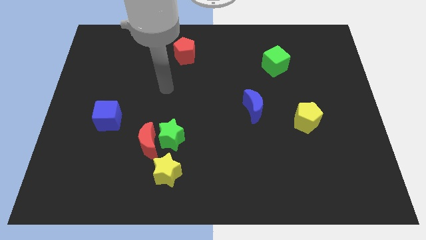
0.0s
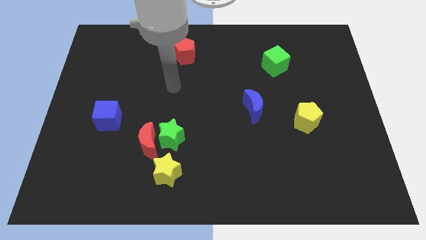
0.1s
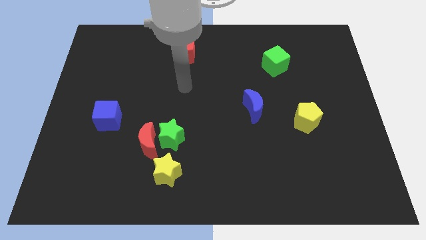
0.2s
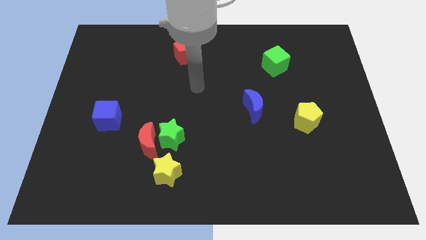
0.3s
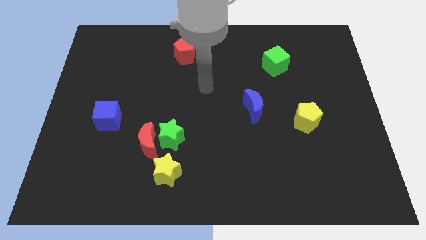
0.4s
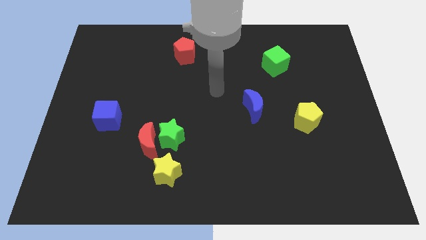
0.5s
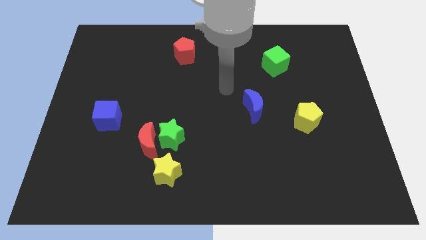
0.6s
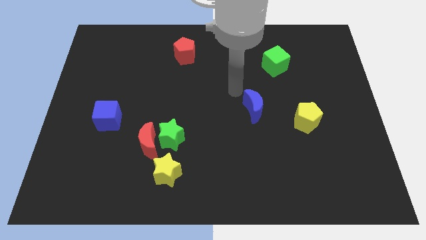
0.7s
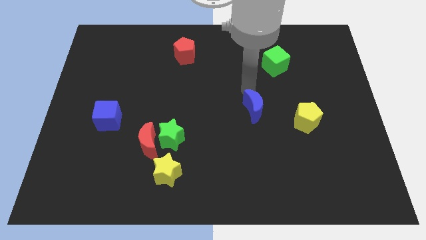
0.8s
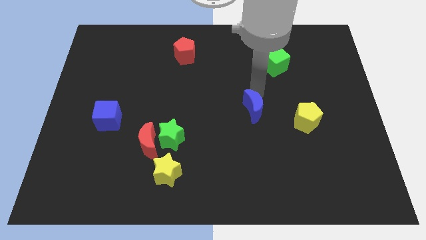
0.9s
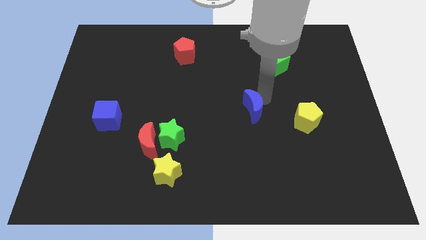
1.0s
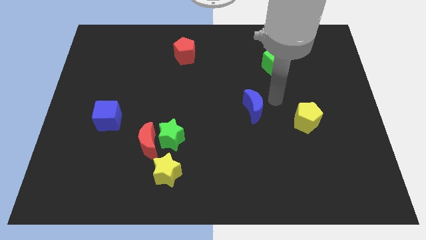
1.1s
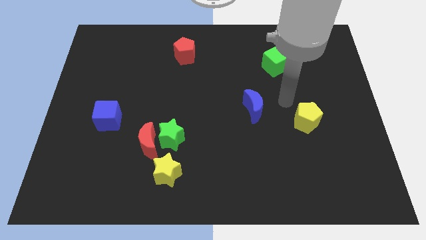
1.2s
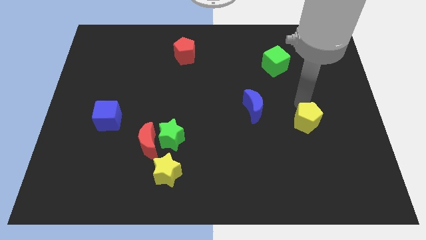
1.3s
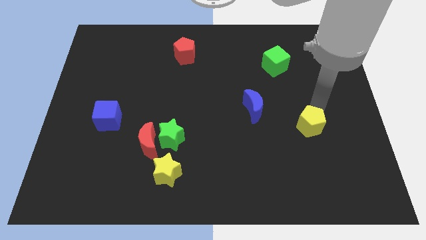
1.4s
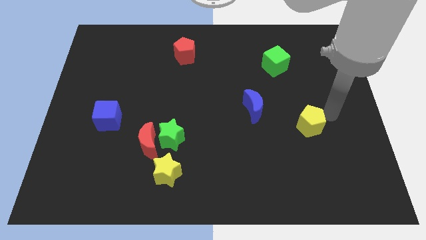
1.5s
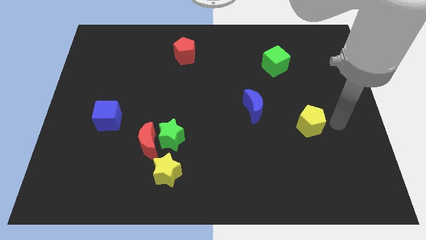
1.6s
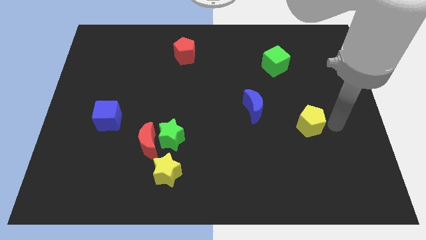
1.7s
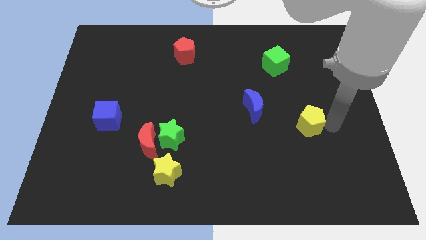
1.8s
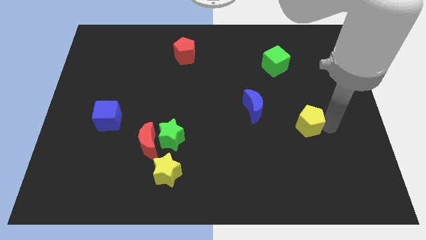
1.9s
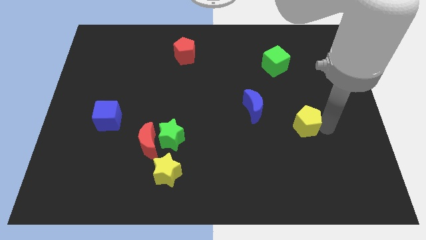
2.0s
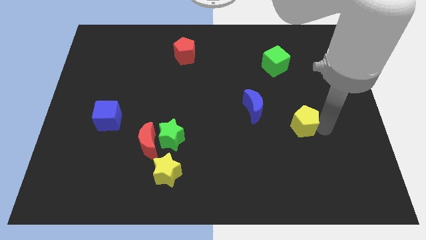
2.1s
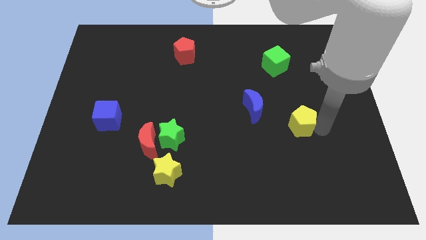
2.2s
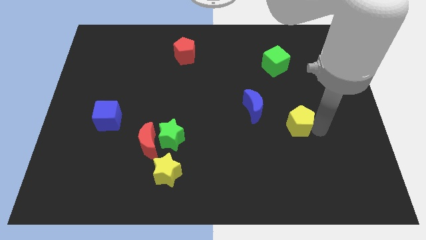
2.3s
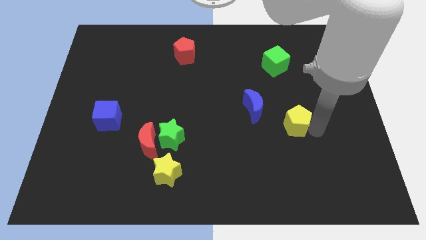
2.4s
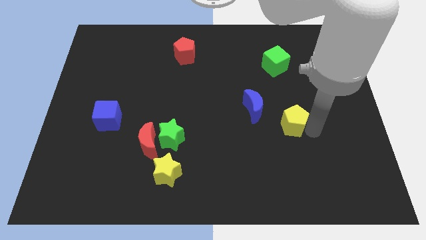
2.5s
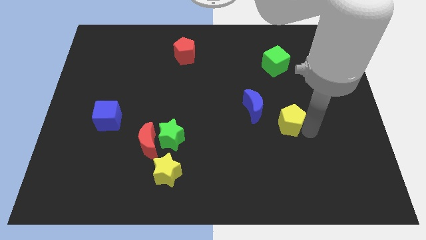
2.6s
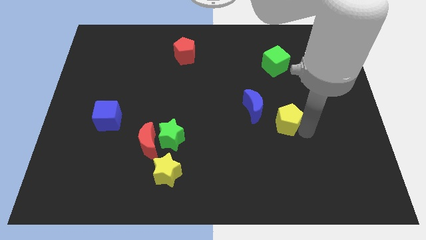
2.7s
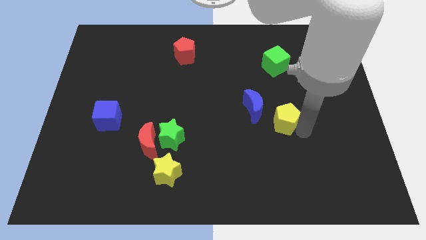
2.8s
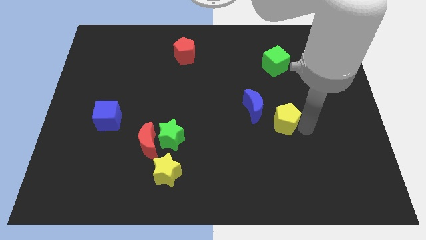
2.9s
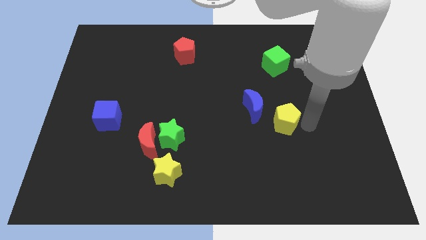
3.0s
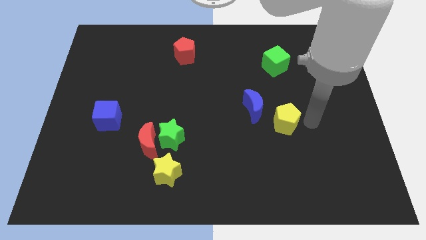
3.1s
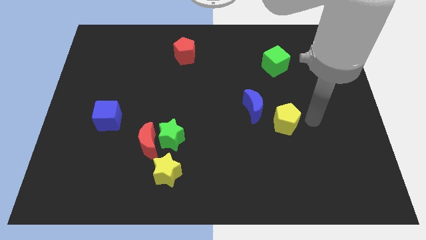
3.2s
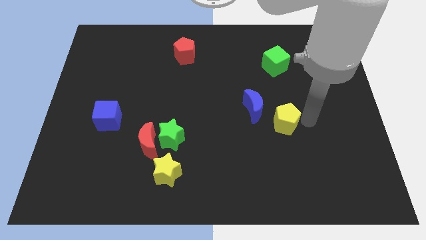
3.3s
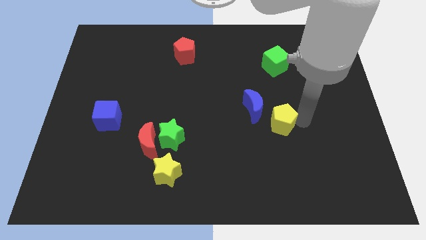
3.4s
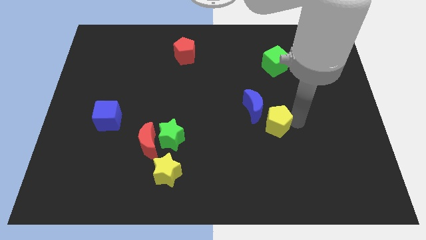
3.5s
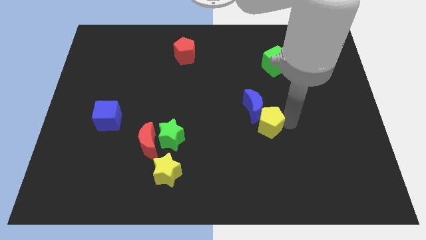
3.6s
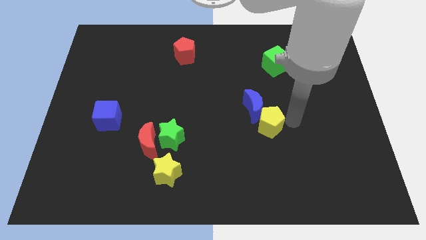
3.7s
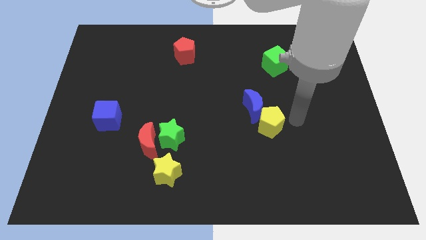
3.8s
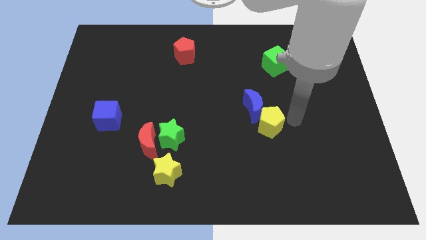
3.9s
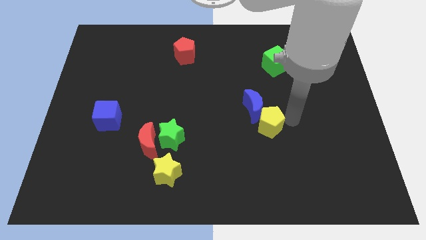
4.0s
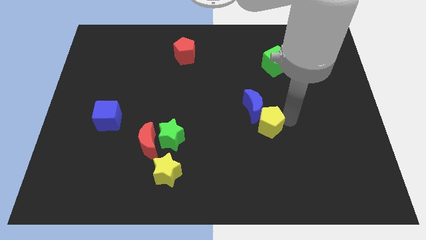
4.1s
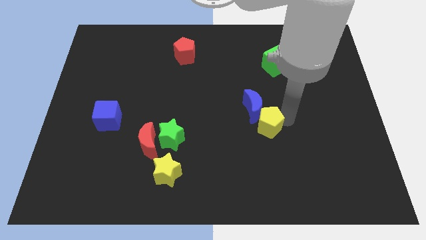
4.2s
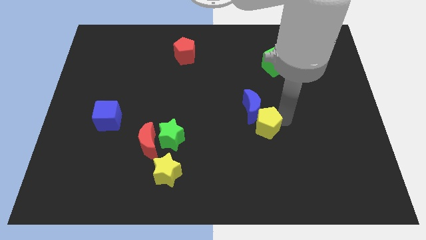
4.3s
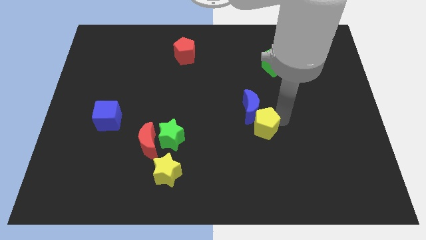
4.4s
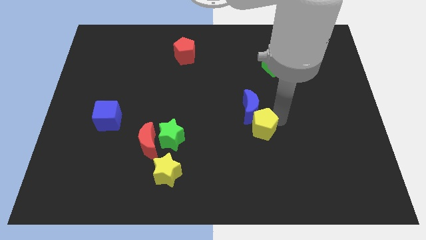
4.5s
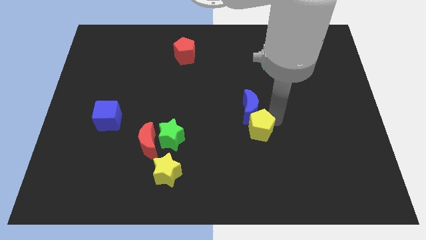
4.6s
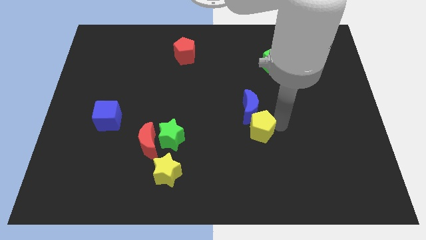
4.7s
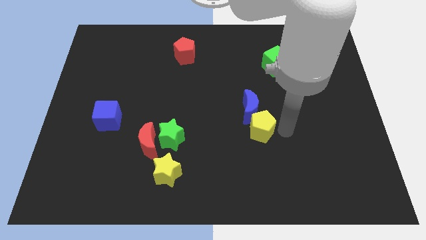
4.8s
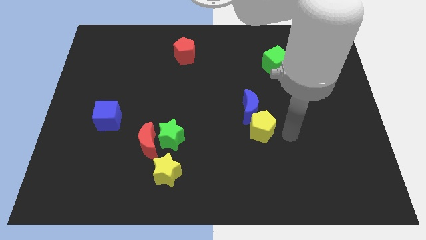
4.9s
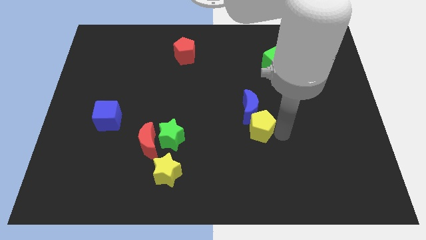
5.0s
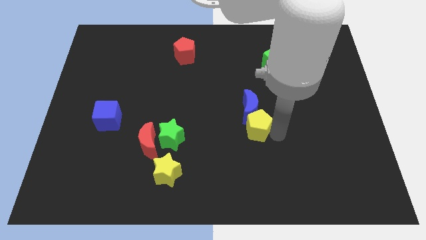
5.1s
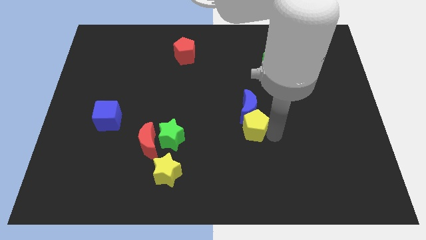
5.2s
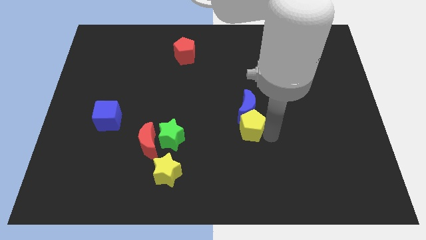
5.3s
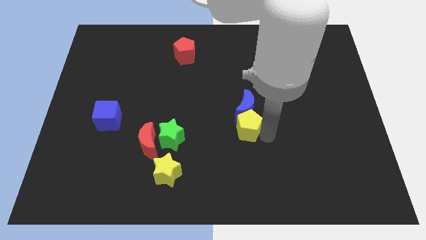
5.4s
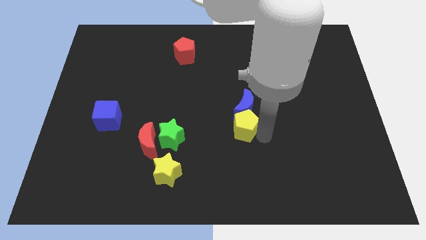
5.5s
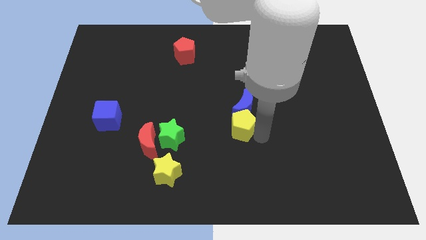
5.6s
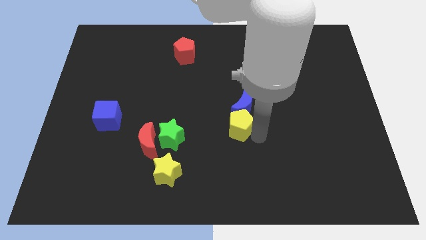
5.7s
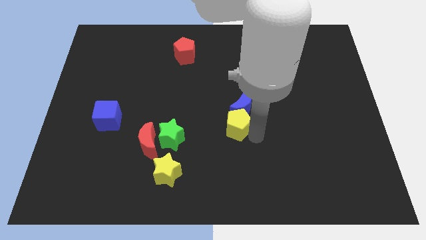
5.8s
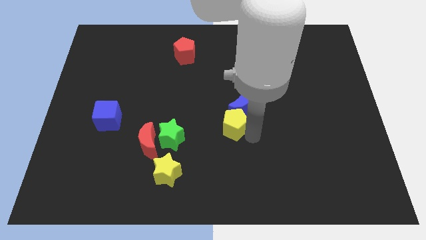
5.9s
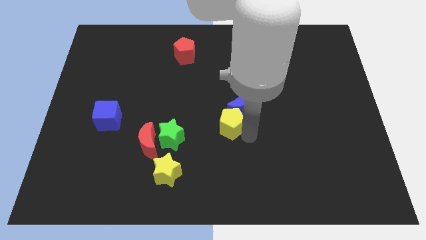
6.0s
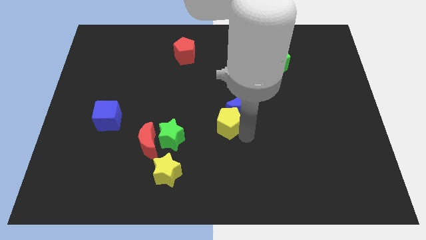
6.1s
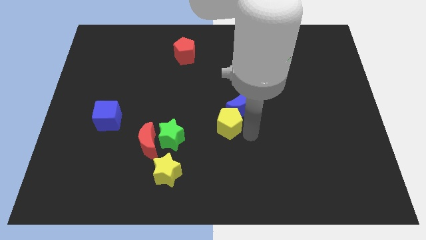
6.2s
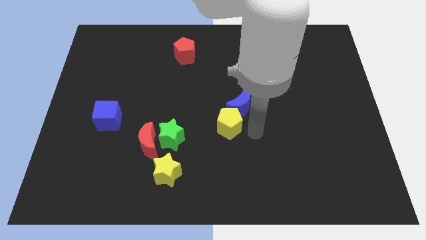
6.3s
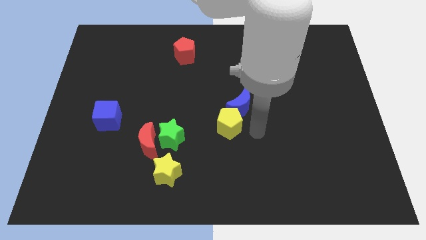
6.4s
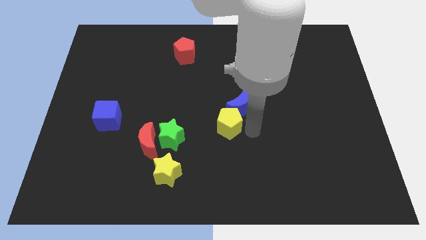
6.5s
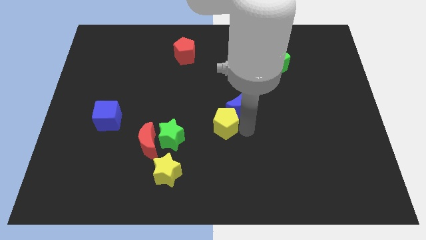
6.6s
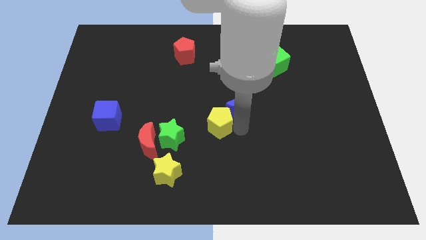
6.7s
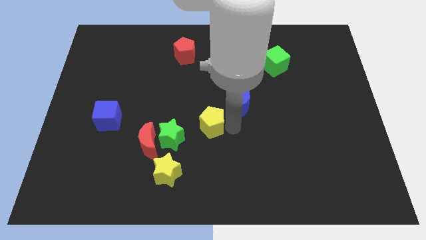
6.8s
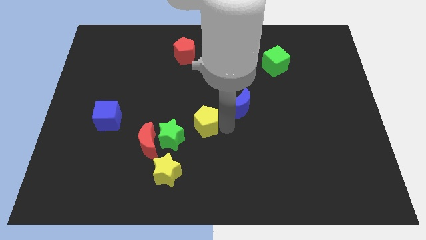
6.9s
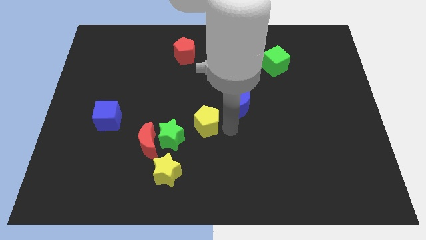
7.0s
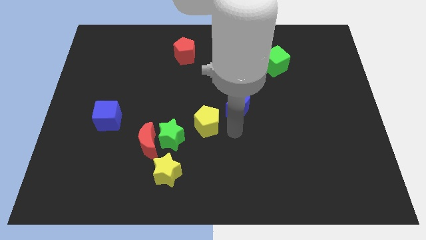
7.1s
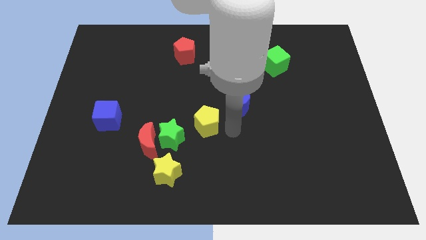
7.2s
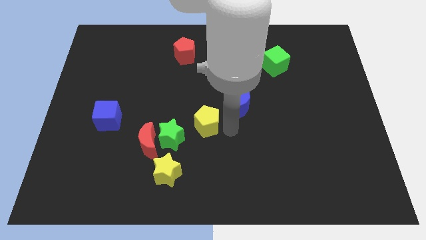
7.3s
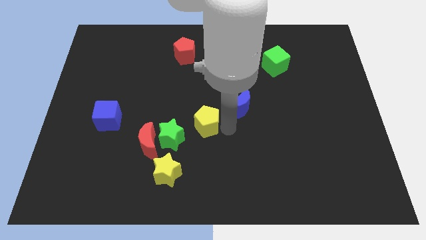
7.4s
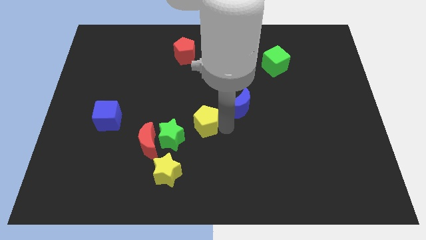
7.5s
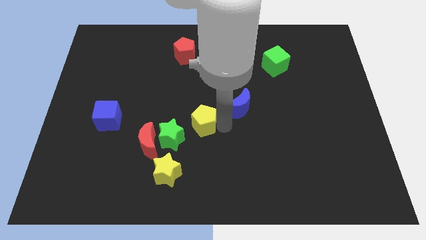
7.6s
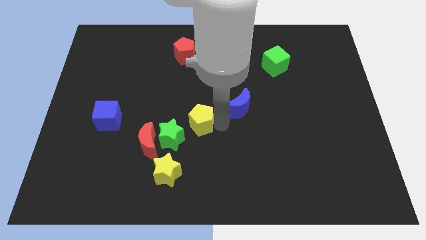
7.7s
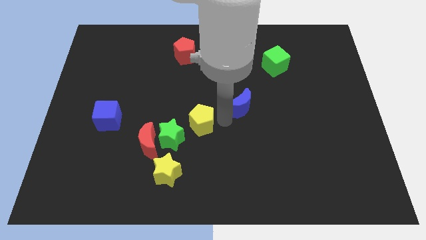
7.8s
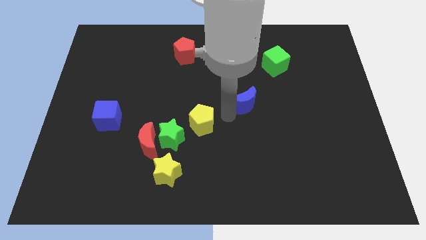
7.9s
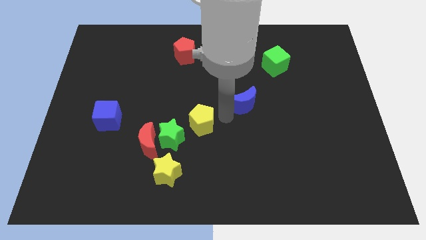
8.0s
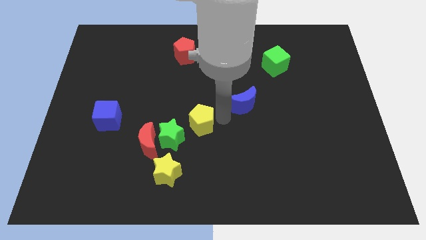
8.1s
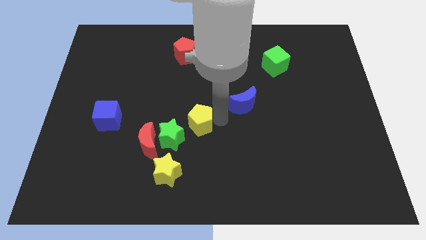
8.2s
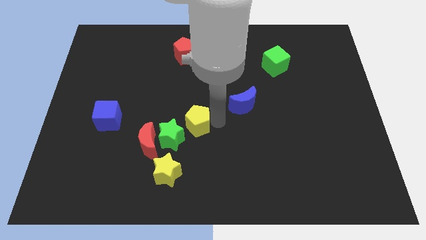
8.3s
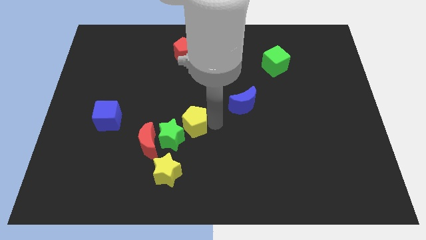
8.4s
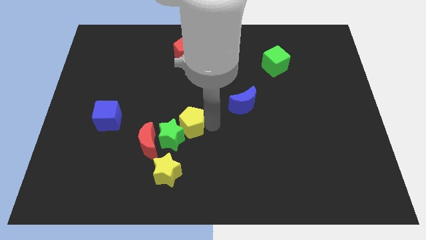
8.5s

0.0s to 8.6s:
put the yellow pentagon to the top side of the yellow star
